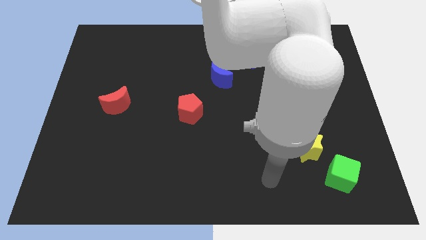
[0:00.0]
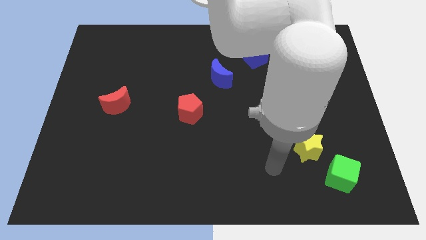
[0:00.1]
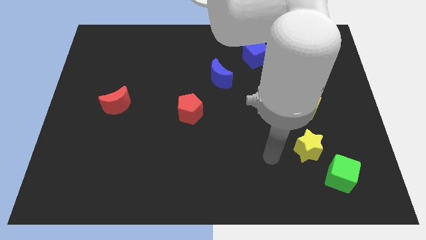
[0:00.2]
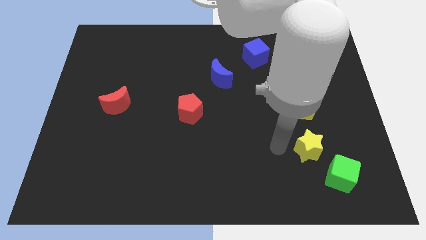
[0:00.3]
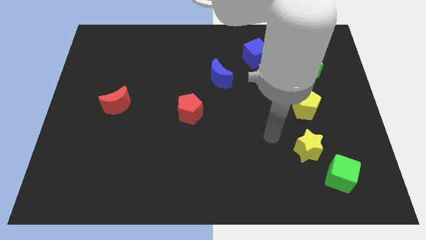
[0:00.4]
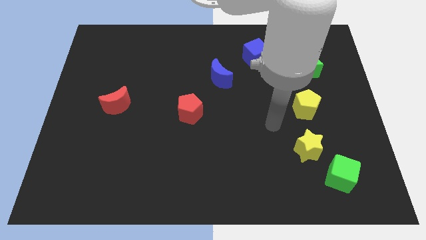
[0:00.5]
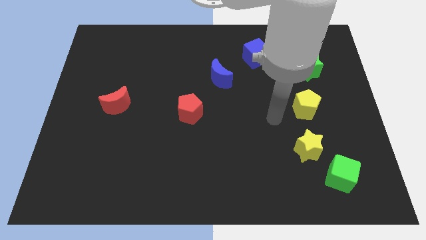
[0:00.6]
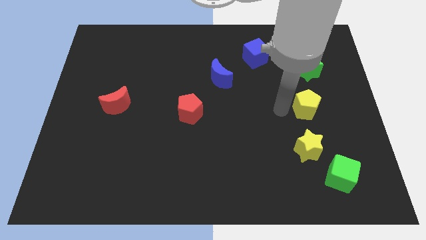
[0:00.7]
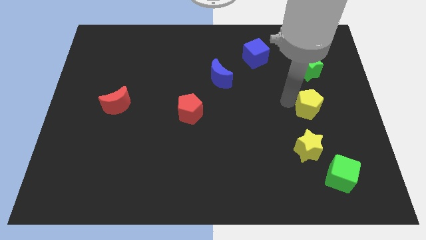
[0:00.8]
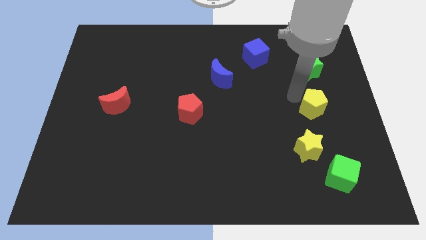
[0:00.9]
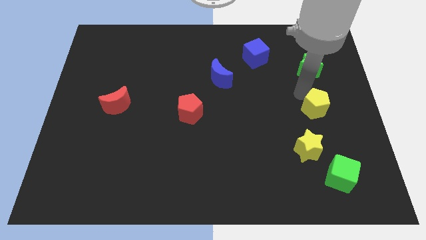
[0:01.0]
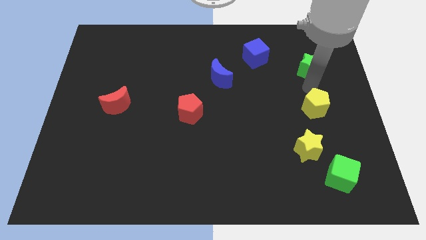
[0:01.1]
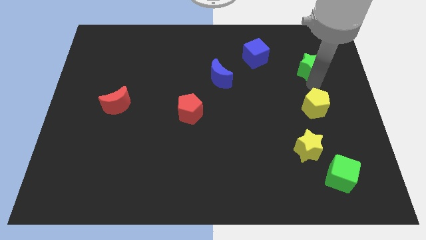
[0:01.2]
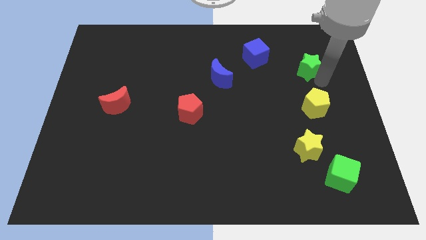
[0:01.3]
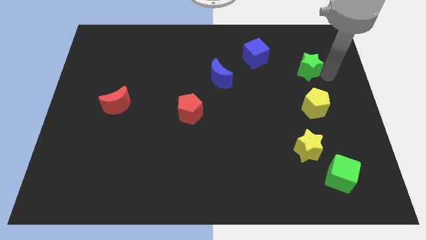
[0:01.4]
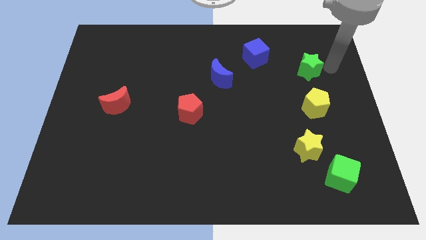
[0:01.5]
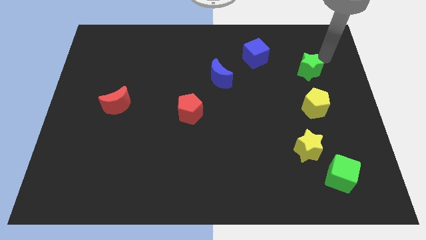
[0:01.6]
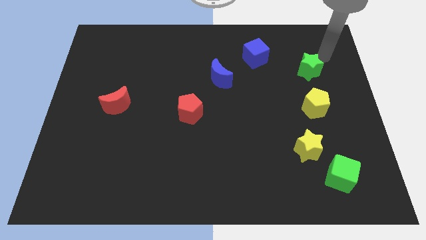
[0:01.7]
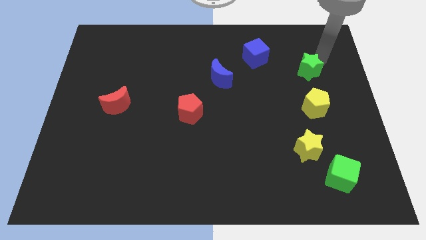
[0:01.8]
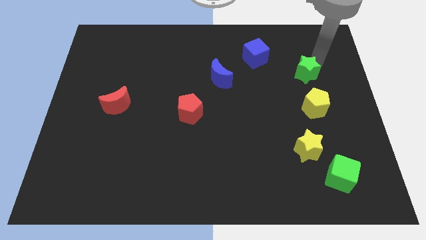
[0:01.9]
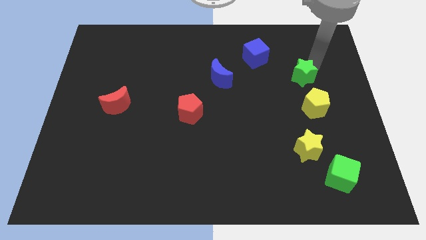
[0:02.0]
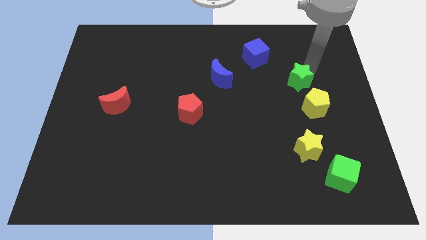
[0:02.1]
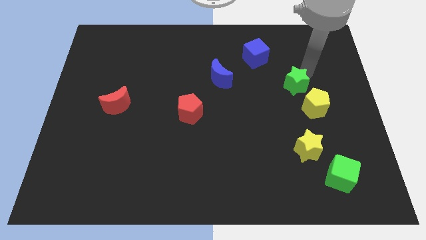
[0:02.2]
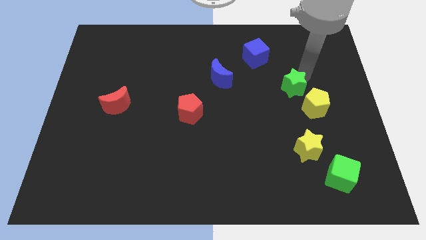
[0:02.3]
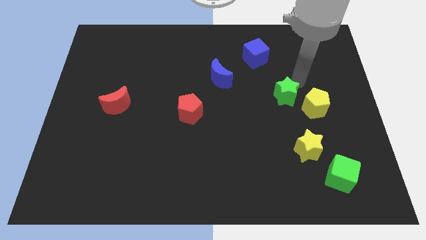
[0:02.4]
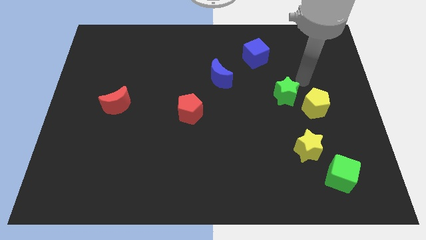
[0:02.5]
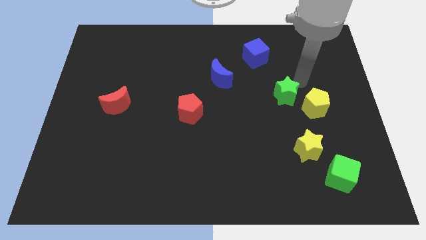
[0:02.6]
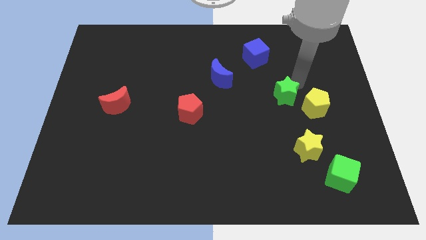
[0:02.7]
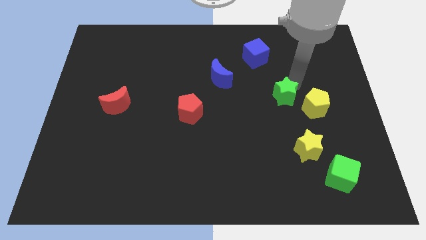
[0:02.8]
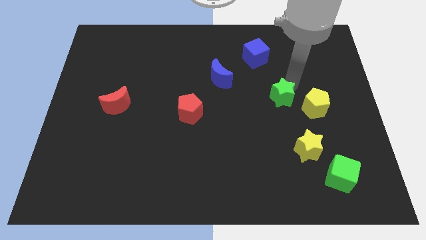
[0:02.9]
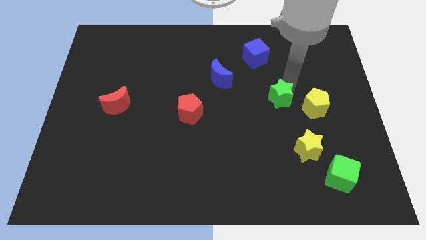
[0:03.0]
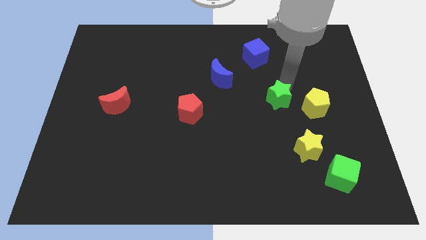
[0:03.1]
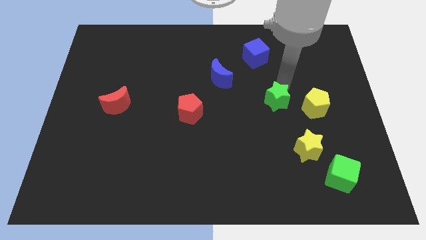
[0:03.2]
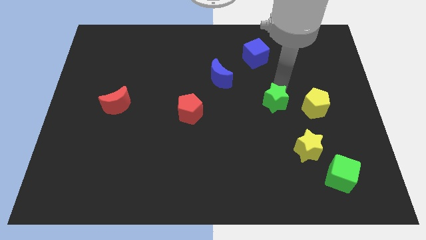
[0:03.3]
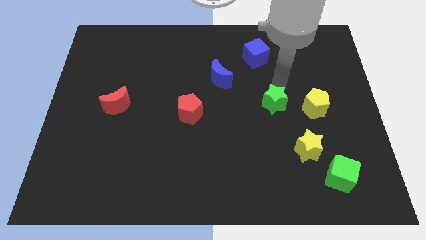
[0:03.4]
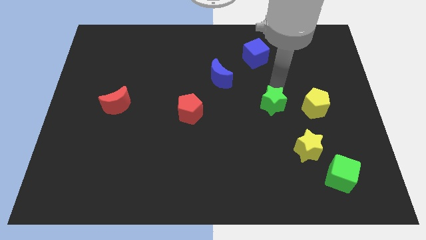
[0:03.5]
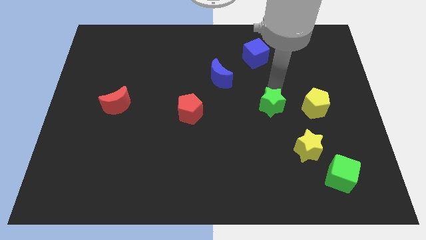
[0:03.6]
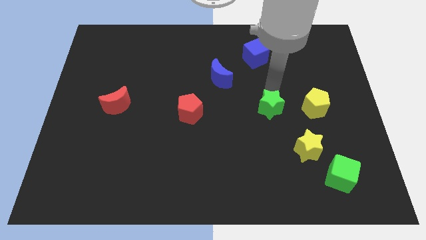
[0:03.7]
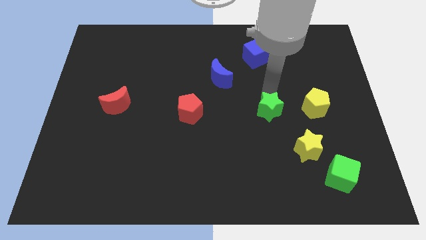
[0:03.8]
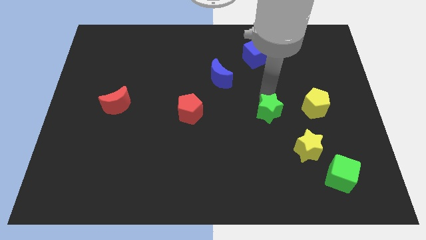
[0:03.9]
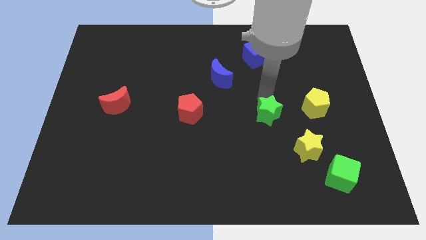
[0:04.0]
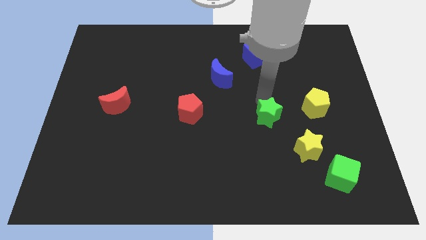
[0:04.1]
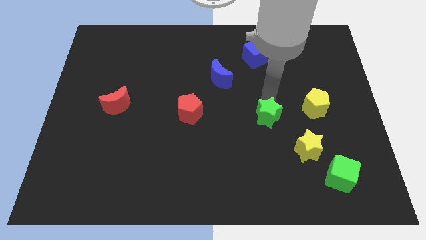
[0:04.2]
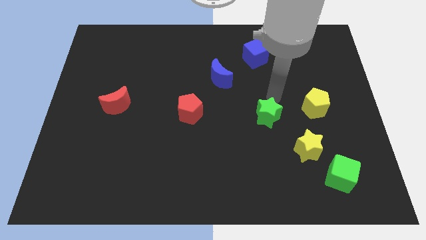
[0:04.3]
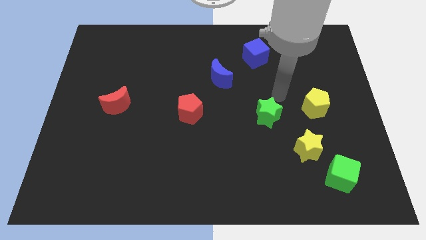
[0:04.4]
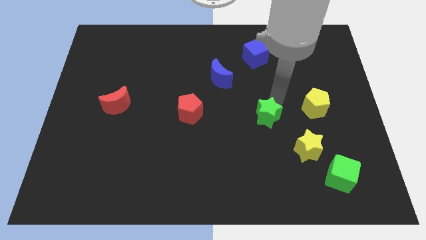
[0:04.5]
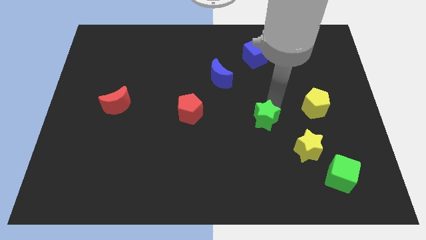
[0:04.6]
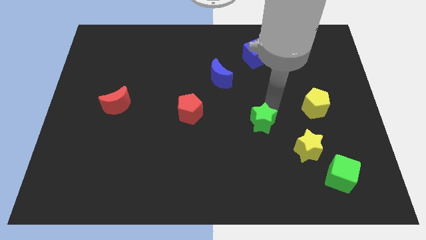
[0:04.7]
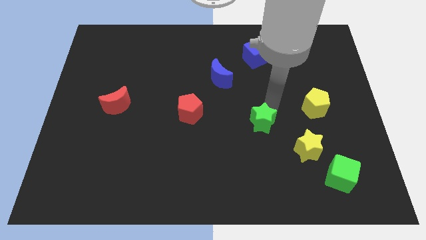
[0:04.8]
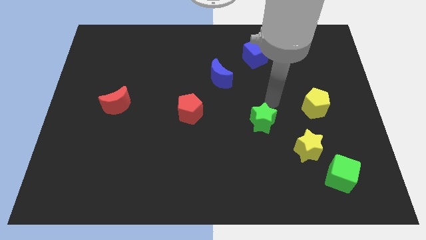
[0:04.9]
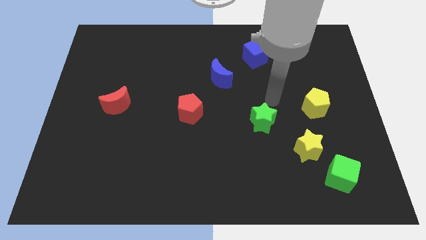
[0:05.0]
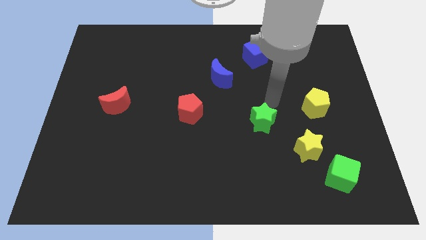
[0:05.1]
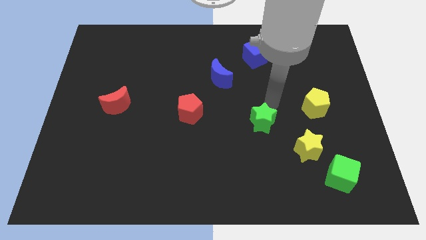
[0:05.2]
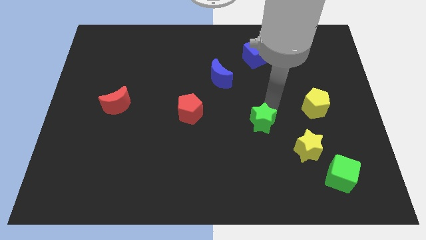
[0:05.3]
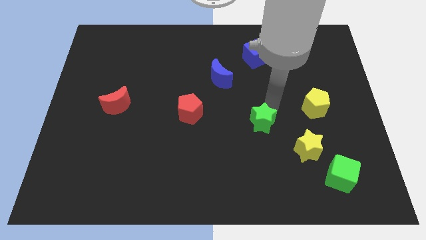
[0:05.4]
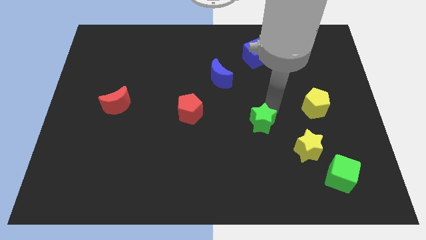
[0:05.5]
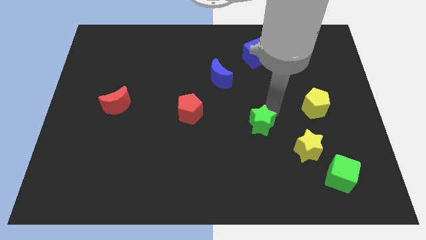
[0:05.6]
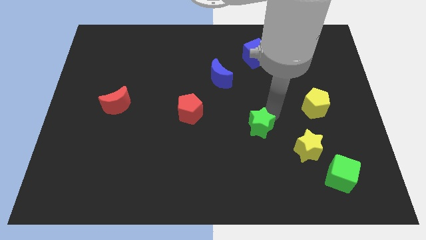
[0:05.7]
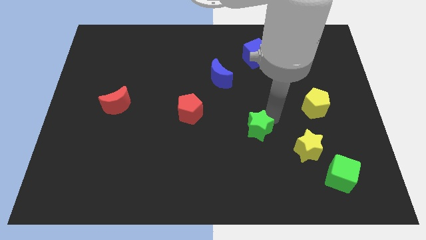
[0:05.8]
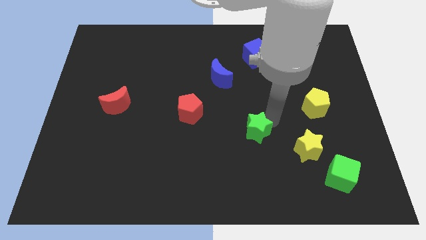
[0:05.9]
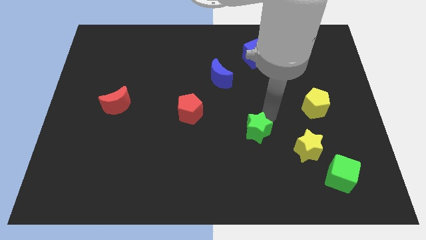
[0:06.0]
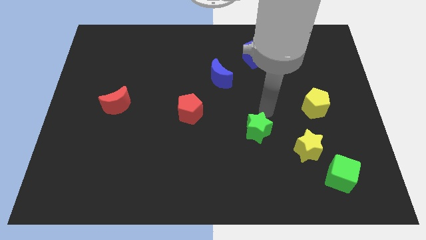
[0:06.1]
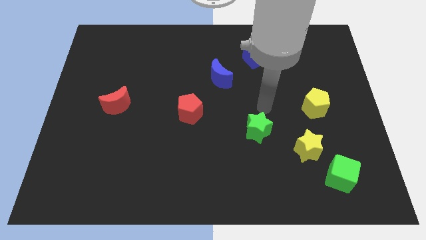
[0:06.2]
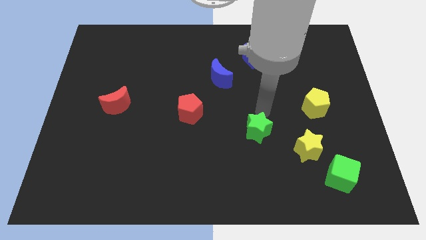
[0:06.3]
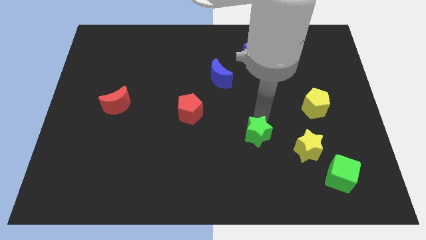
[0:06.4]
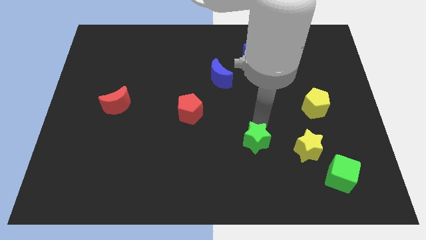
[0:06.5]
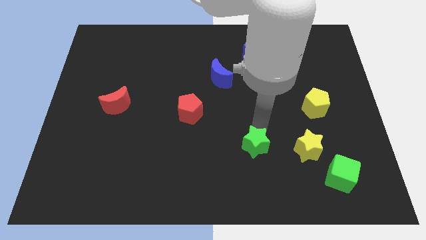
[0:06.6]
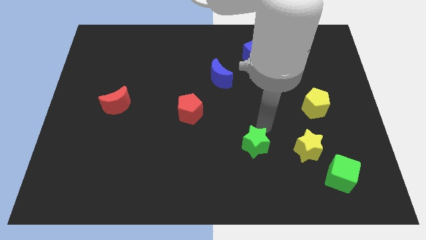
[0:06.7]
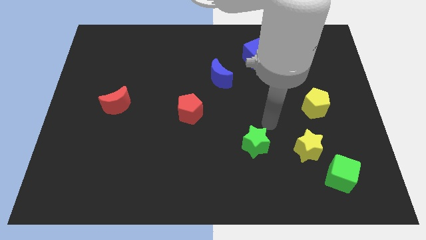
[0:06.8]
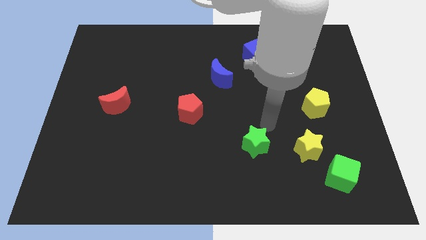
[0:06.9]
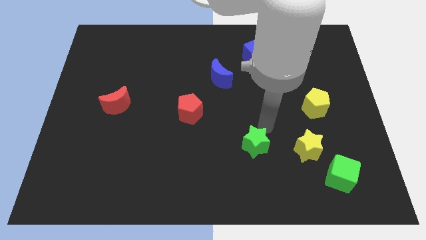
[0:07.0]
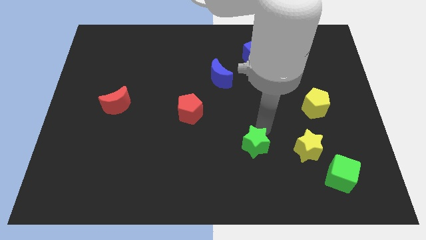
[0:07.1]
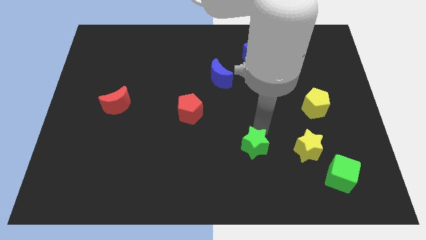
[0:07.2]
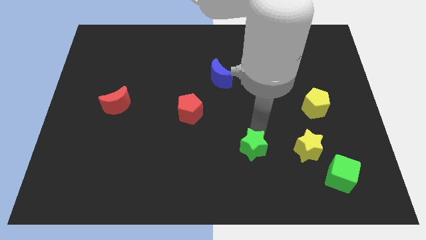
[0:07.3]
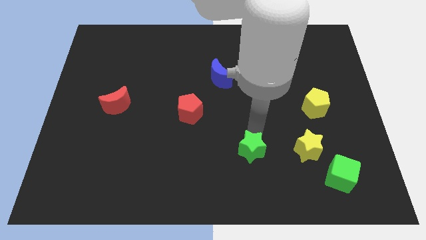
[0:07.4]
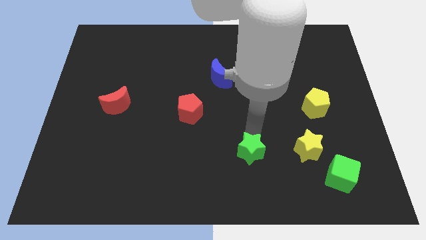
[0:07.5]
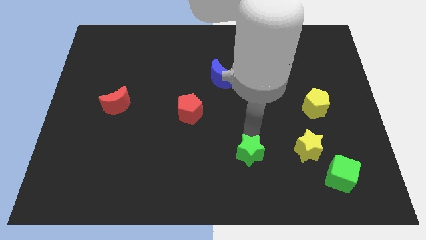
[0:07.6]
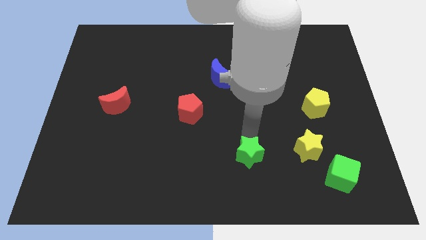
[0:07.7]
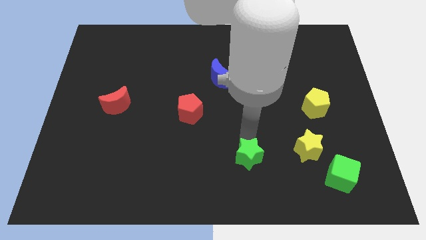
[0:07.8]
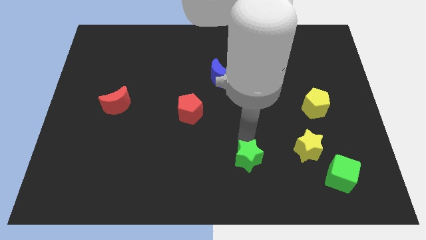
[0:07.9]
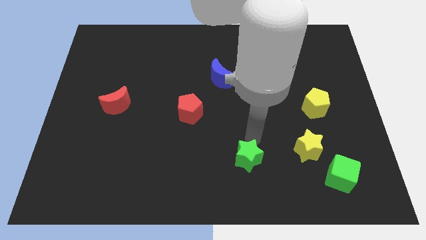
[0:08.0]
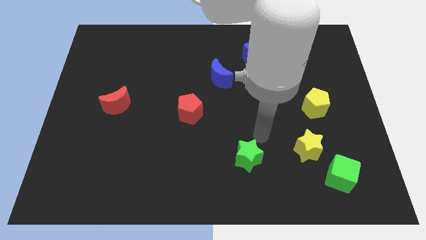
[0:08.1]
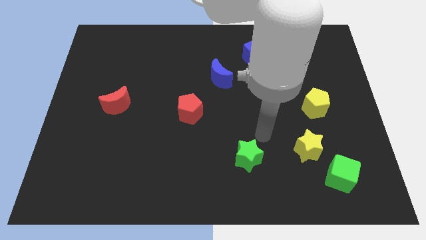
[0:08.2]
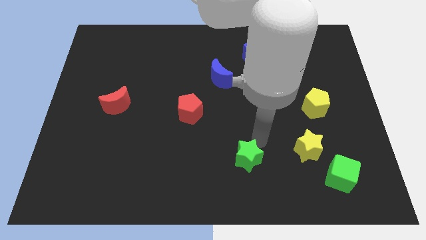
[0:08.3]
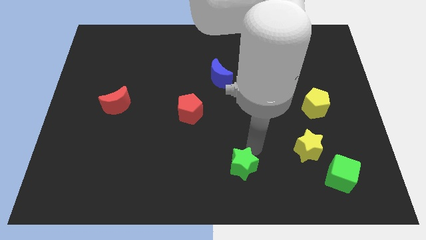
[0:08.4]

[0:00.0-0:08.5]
push the green star to the bottom side
